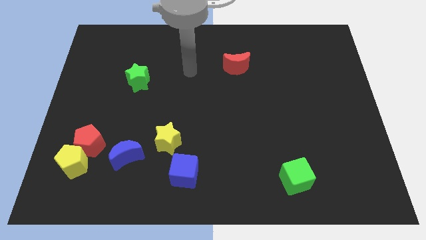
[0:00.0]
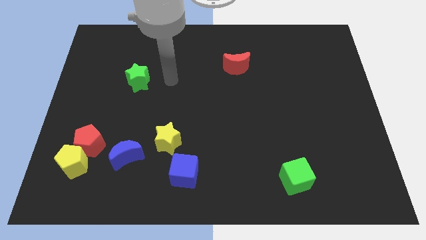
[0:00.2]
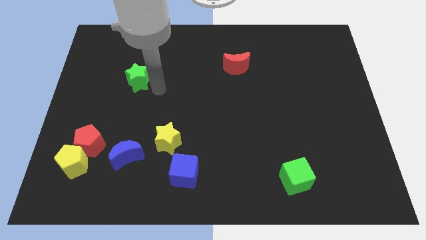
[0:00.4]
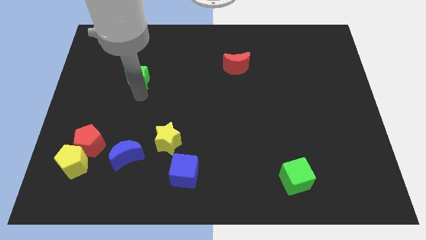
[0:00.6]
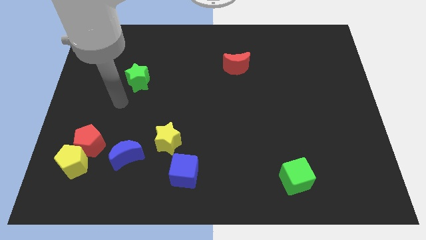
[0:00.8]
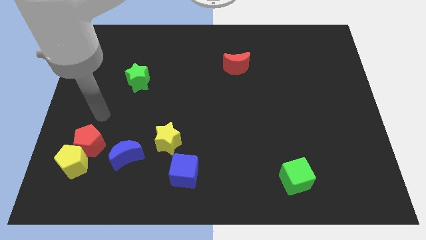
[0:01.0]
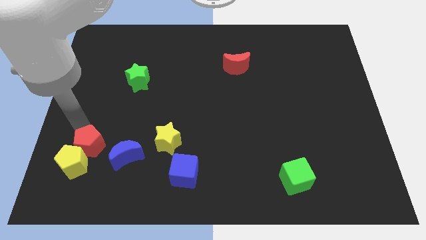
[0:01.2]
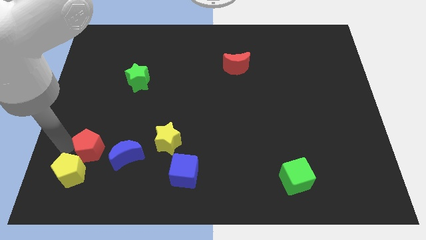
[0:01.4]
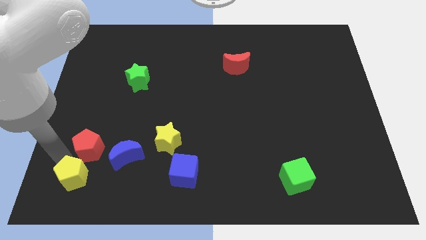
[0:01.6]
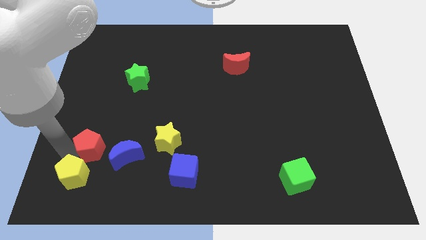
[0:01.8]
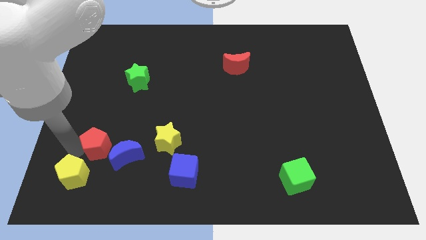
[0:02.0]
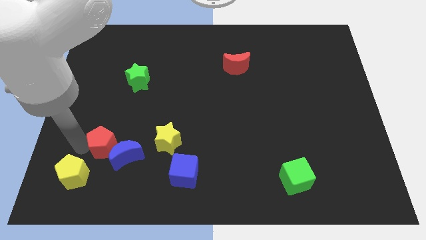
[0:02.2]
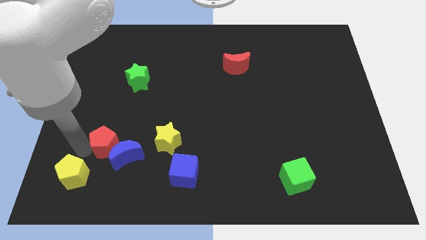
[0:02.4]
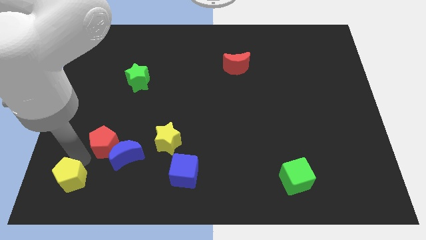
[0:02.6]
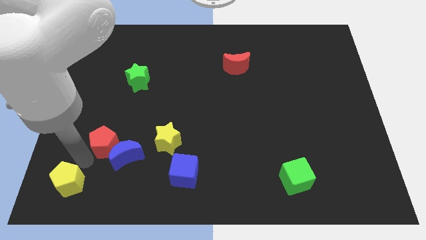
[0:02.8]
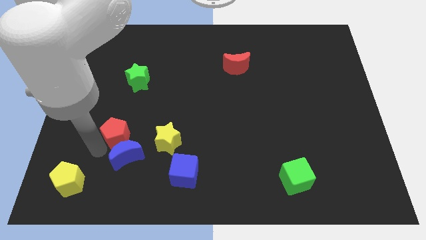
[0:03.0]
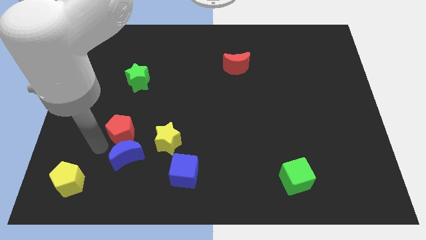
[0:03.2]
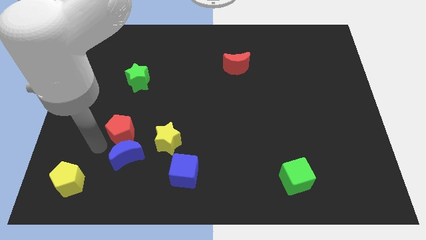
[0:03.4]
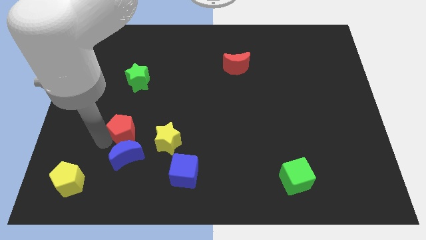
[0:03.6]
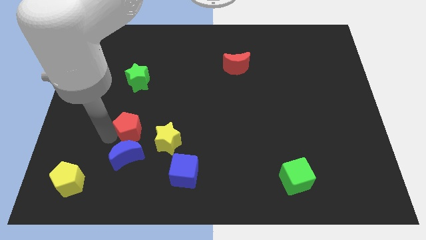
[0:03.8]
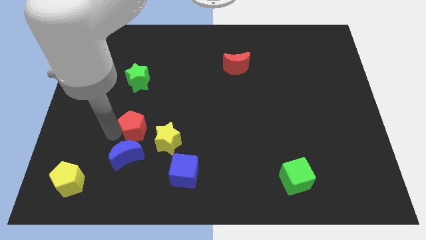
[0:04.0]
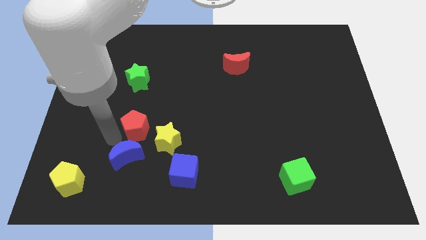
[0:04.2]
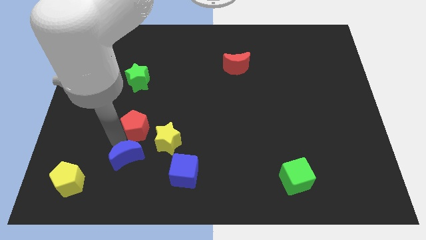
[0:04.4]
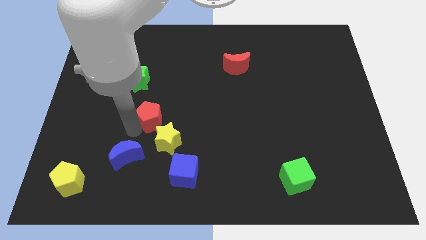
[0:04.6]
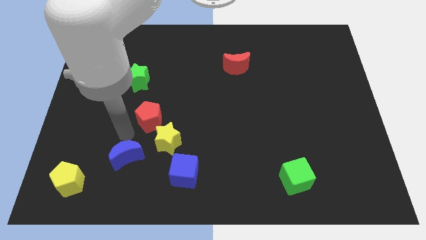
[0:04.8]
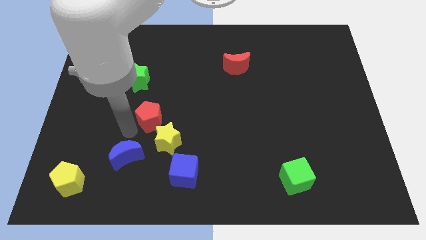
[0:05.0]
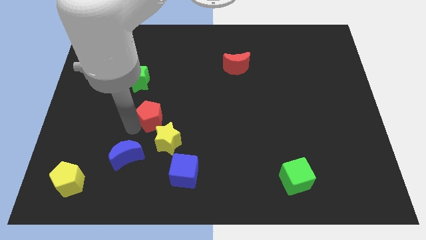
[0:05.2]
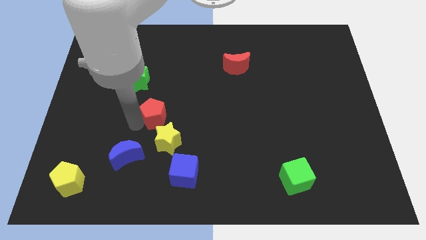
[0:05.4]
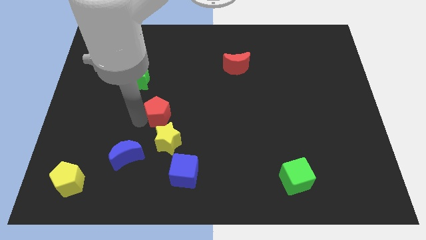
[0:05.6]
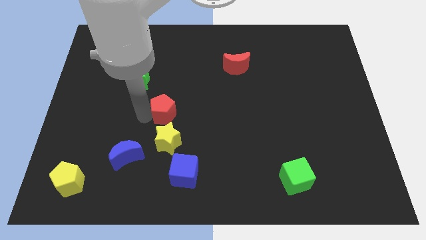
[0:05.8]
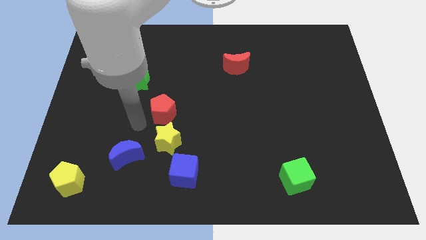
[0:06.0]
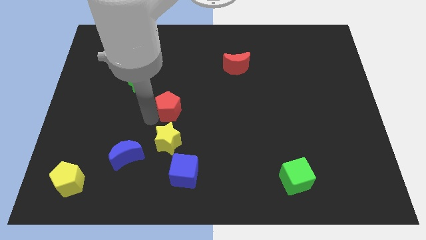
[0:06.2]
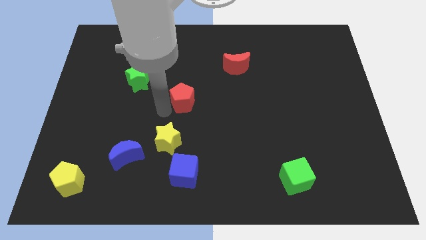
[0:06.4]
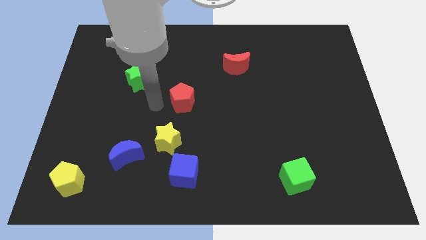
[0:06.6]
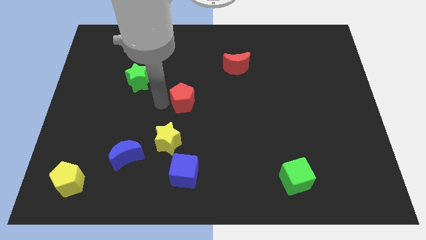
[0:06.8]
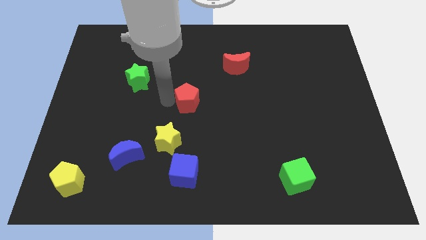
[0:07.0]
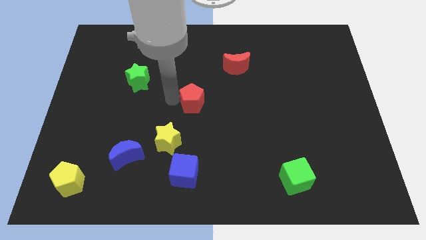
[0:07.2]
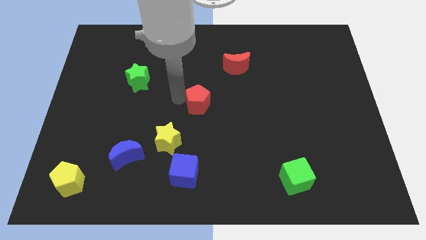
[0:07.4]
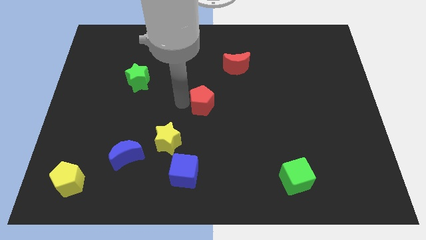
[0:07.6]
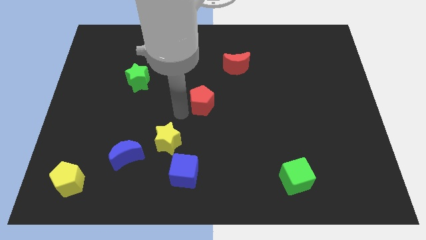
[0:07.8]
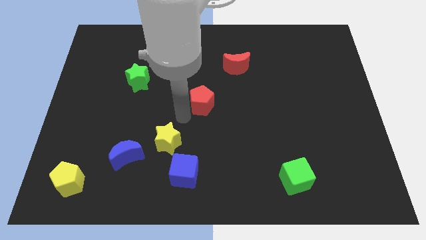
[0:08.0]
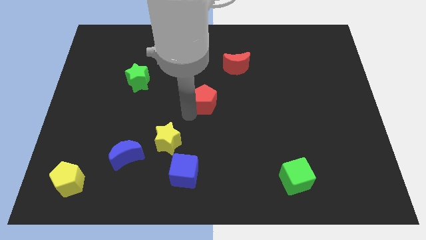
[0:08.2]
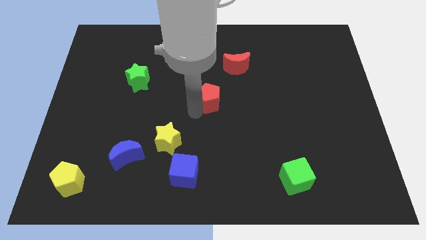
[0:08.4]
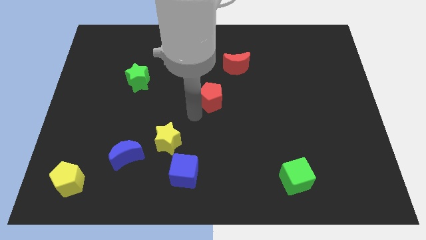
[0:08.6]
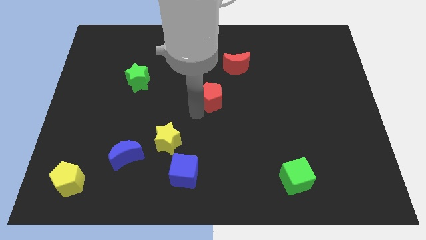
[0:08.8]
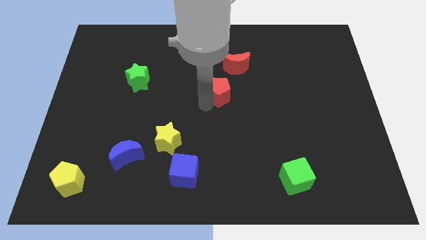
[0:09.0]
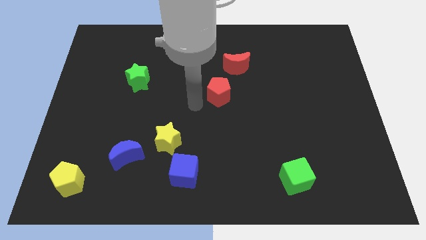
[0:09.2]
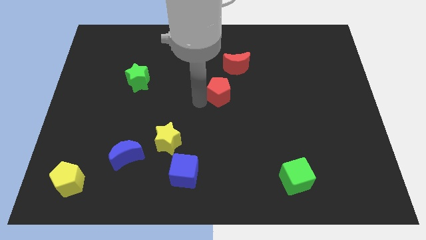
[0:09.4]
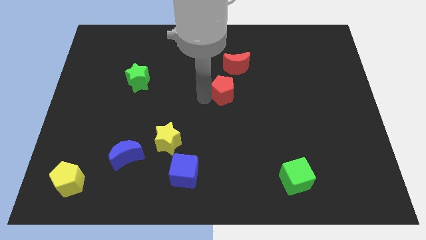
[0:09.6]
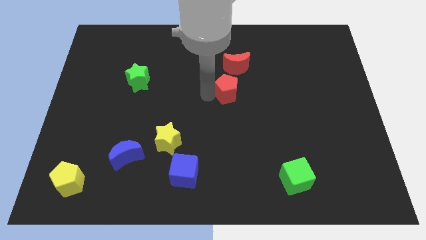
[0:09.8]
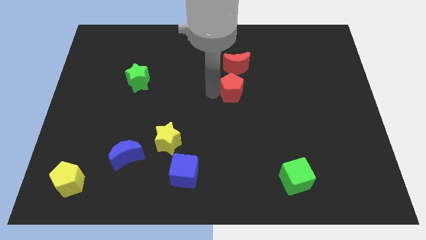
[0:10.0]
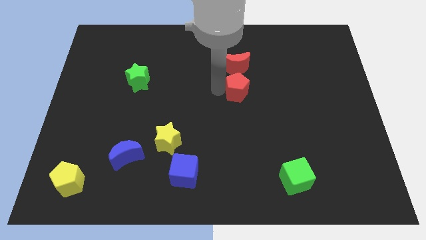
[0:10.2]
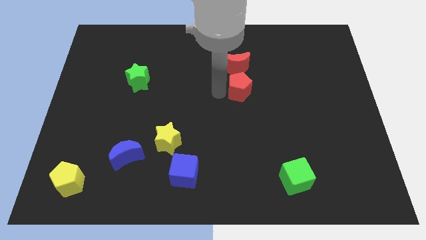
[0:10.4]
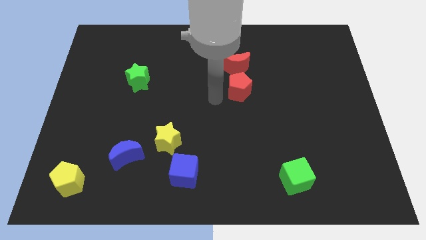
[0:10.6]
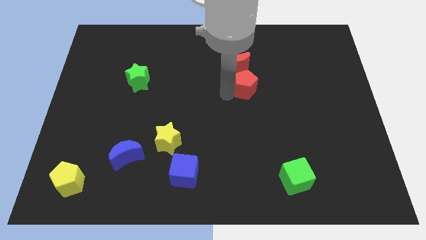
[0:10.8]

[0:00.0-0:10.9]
slide the red pentagon to the bottom right of the red moon

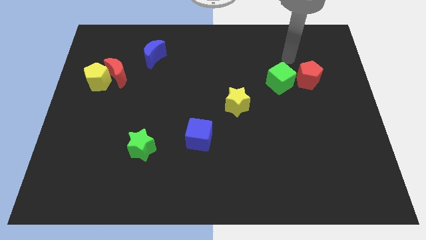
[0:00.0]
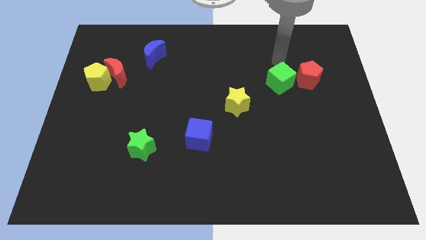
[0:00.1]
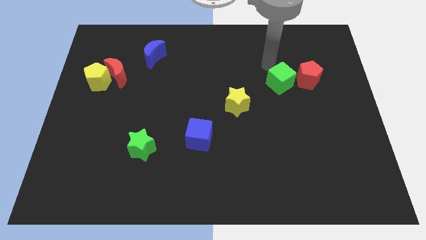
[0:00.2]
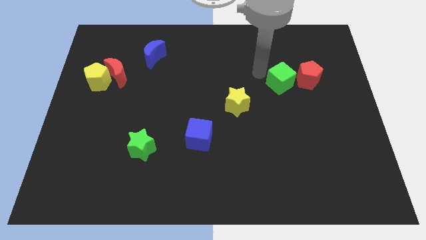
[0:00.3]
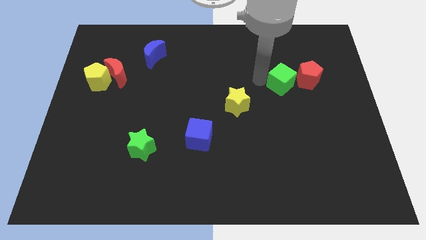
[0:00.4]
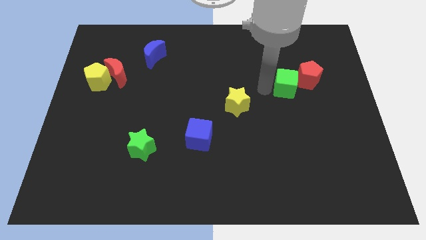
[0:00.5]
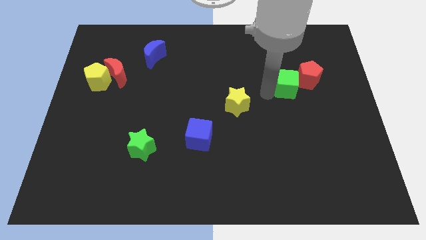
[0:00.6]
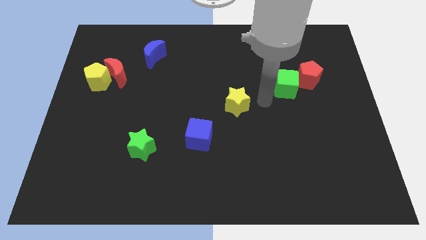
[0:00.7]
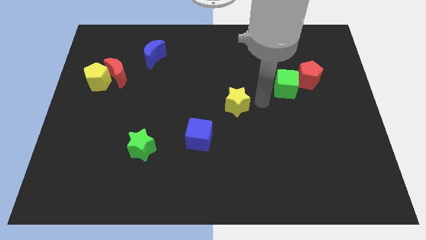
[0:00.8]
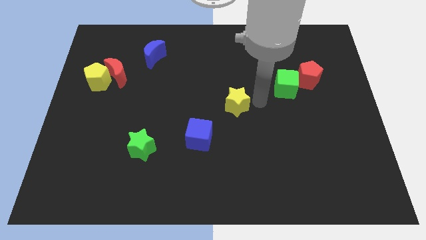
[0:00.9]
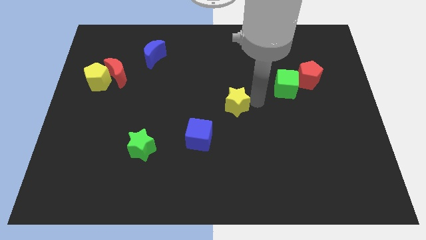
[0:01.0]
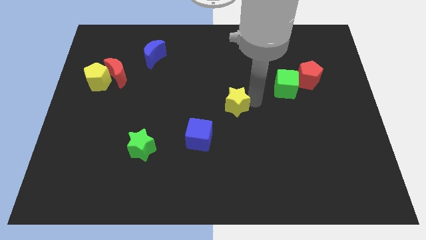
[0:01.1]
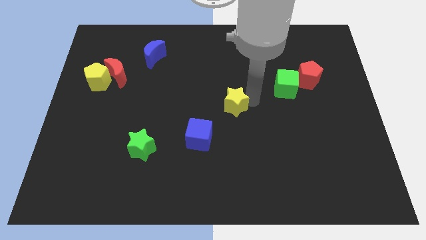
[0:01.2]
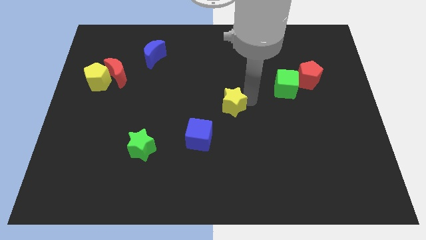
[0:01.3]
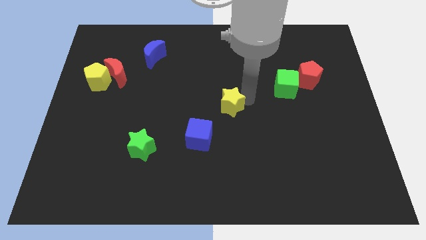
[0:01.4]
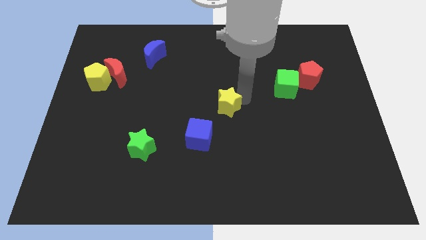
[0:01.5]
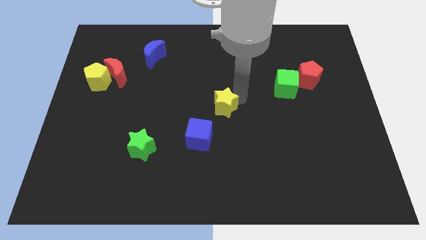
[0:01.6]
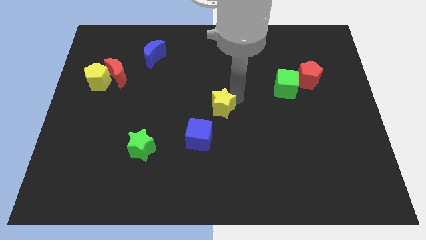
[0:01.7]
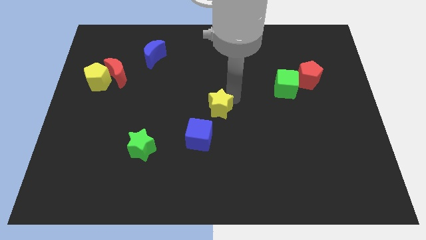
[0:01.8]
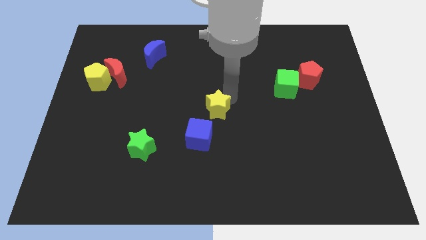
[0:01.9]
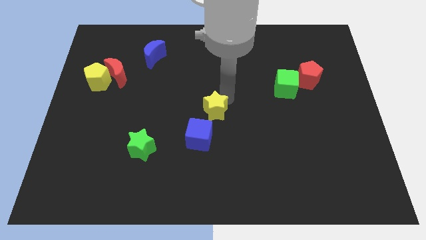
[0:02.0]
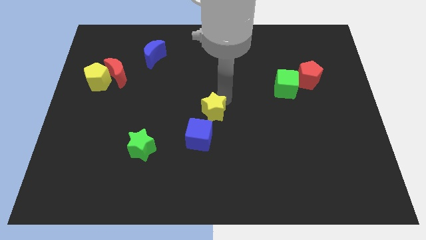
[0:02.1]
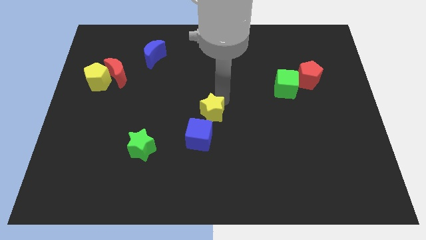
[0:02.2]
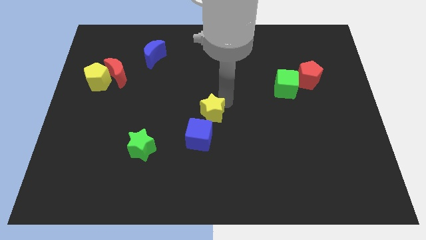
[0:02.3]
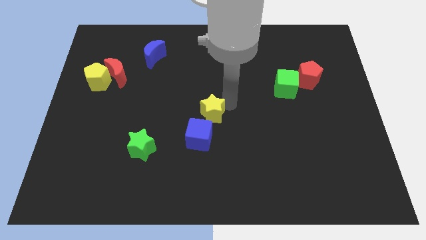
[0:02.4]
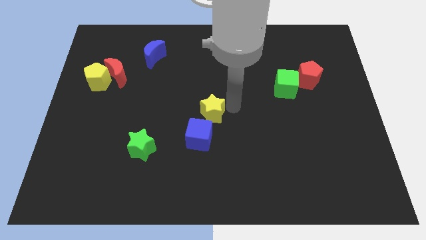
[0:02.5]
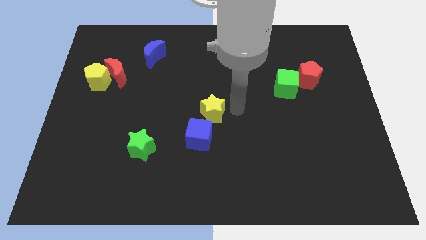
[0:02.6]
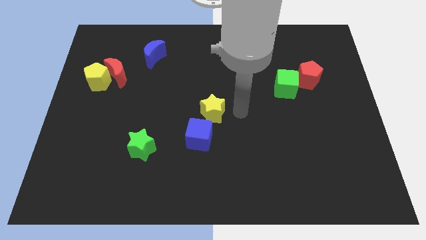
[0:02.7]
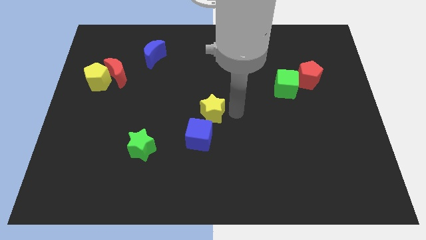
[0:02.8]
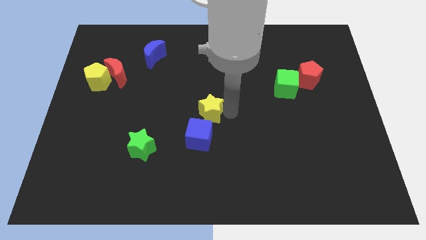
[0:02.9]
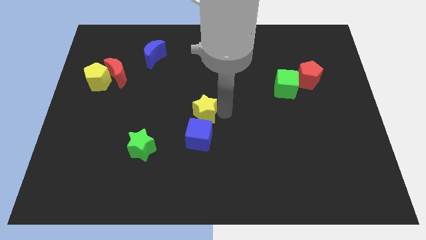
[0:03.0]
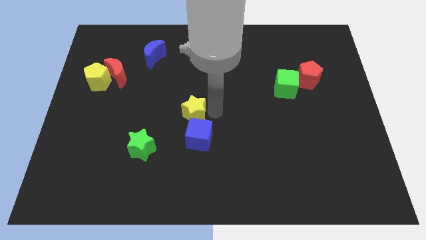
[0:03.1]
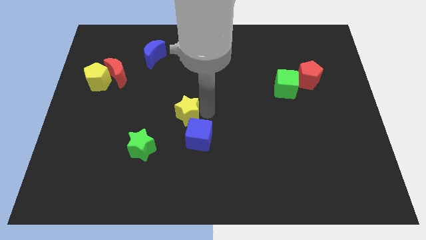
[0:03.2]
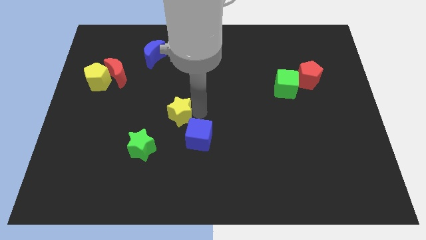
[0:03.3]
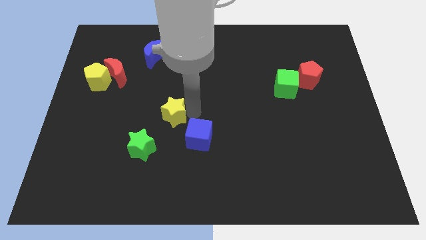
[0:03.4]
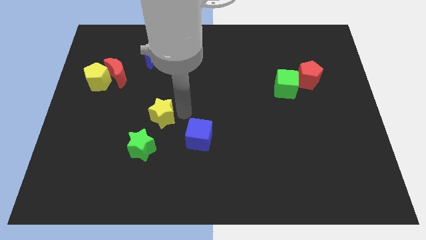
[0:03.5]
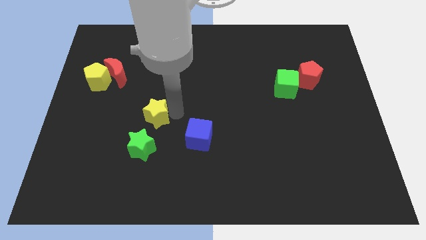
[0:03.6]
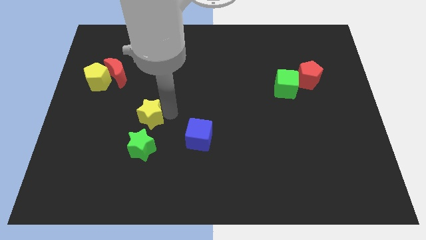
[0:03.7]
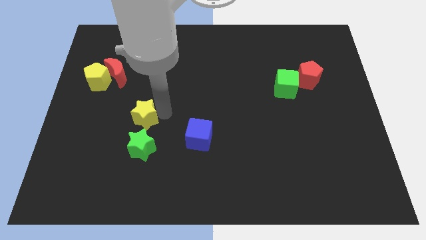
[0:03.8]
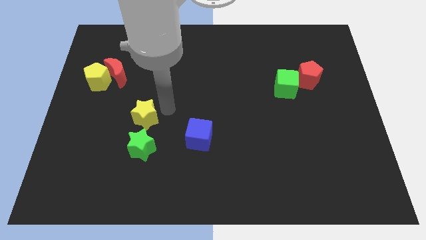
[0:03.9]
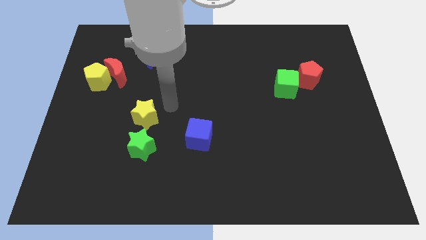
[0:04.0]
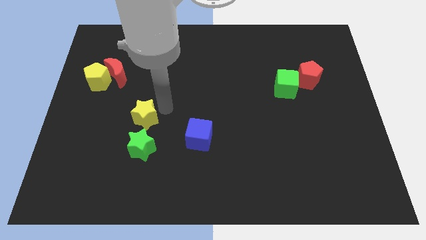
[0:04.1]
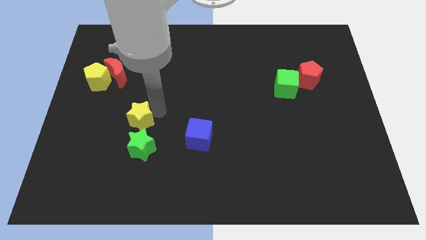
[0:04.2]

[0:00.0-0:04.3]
put the yellow star to the top left of the green star
